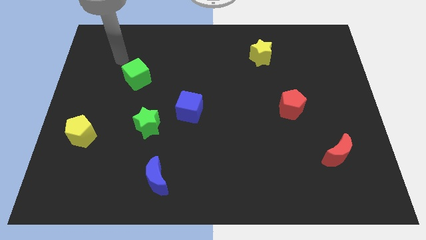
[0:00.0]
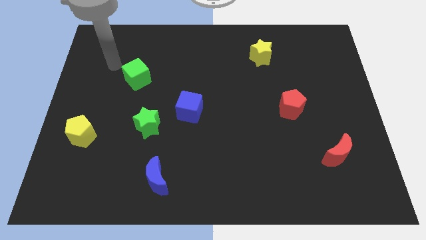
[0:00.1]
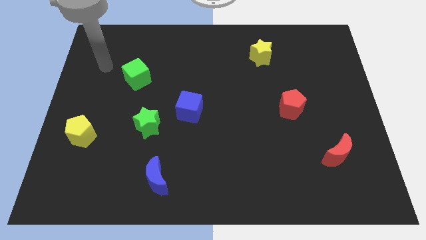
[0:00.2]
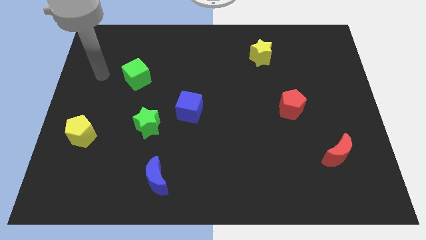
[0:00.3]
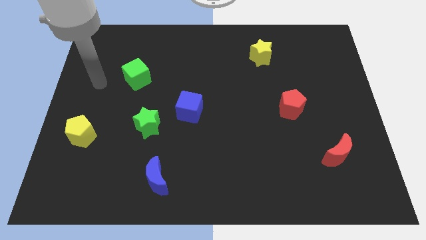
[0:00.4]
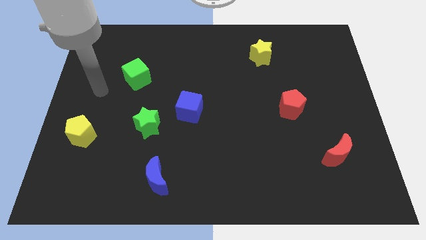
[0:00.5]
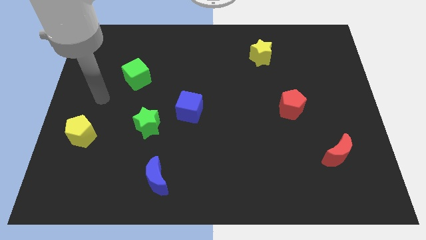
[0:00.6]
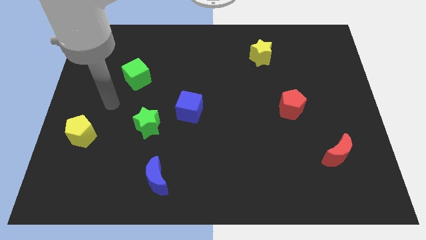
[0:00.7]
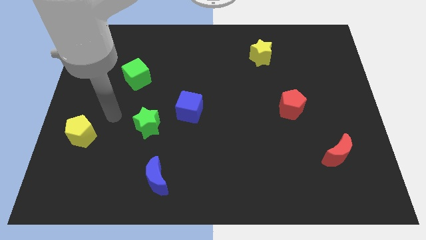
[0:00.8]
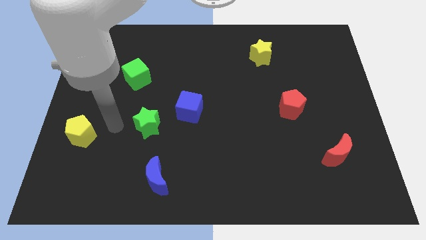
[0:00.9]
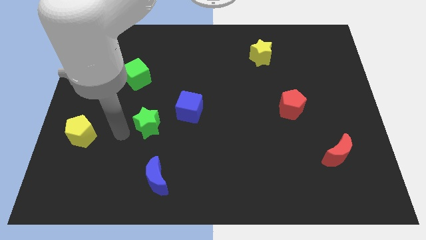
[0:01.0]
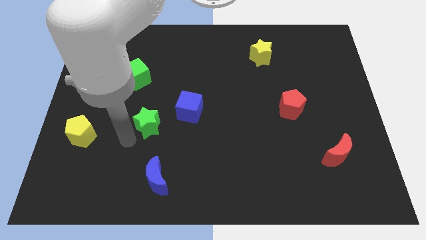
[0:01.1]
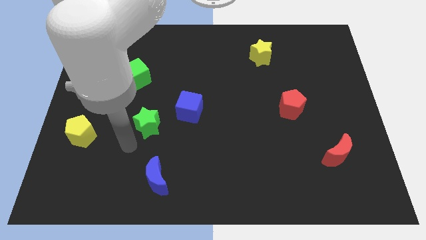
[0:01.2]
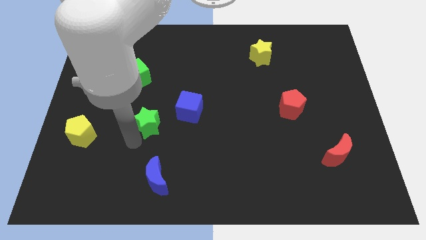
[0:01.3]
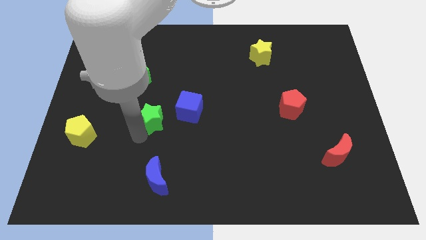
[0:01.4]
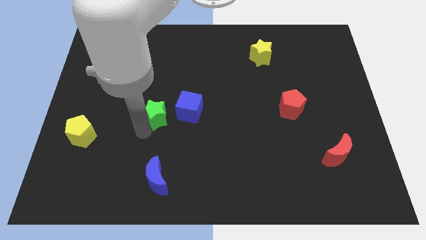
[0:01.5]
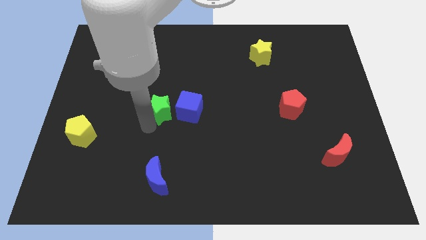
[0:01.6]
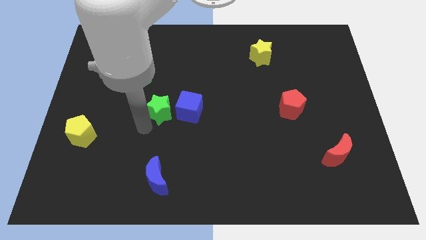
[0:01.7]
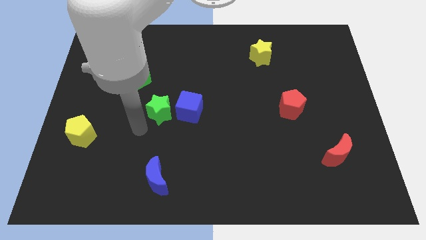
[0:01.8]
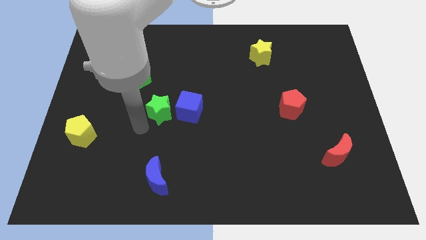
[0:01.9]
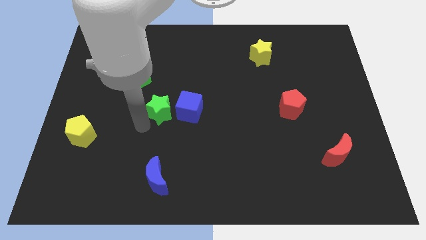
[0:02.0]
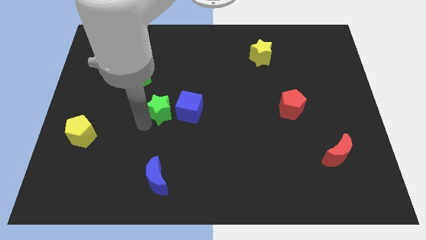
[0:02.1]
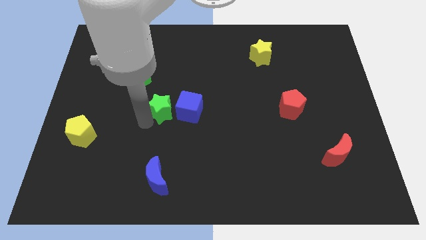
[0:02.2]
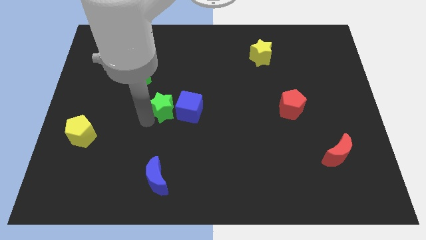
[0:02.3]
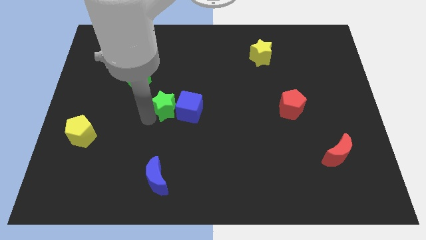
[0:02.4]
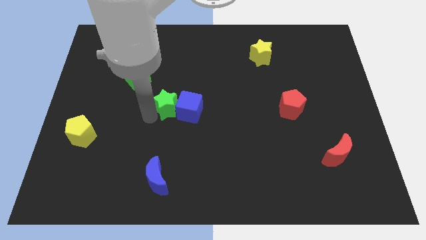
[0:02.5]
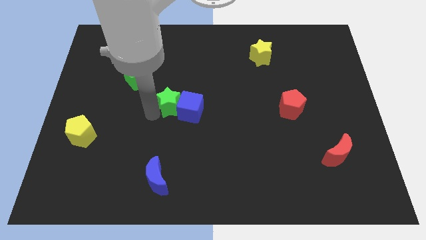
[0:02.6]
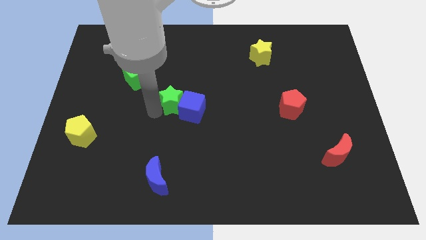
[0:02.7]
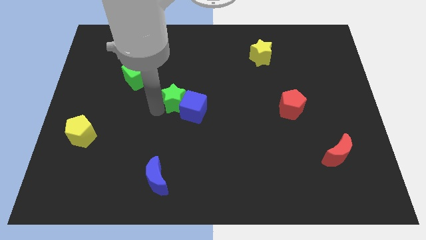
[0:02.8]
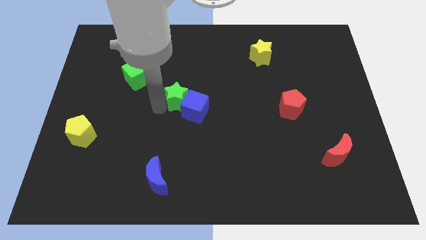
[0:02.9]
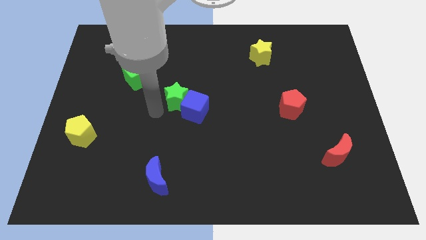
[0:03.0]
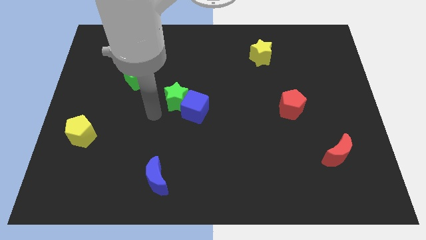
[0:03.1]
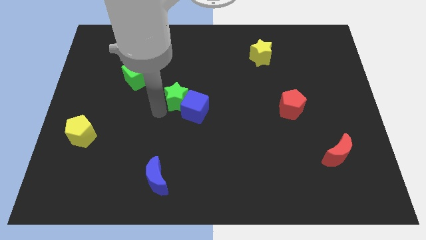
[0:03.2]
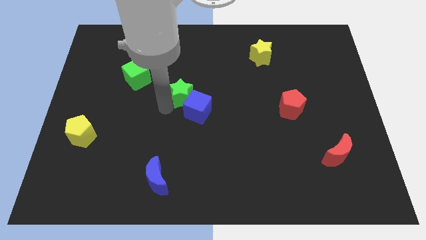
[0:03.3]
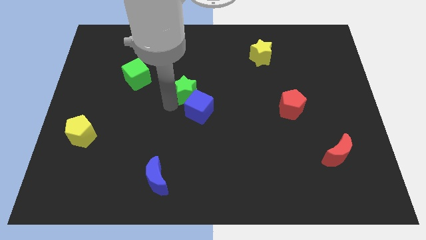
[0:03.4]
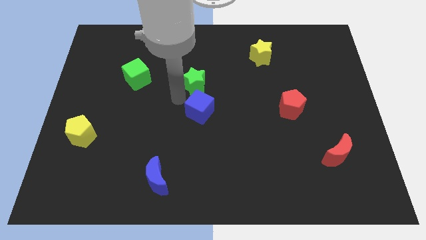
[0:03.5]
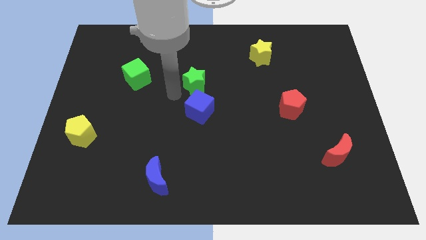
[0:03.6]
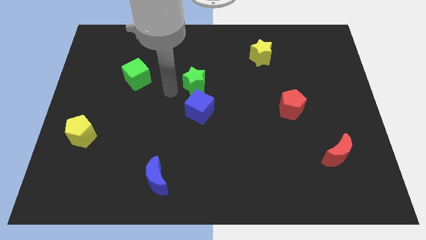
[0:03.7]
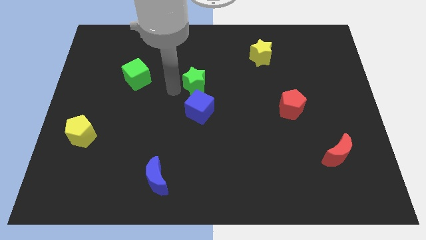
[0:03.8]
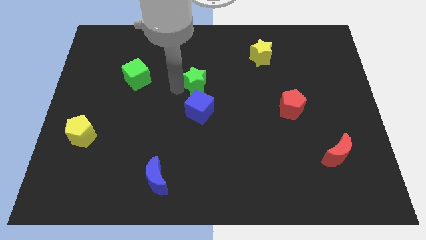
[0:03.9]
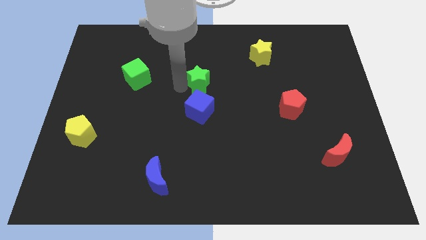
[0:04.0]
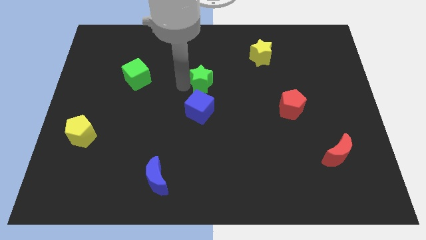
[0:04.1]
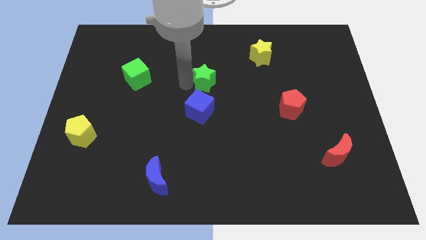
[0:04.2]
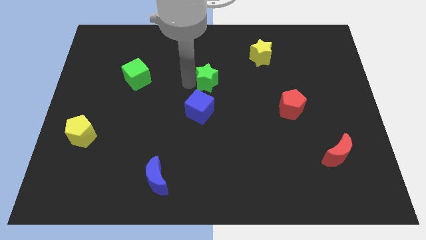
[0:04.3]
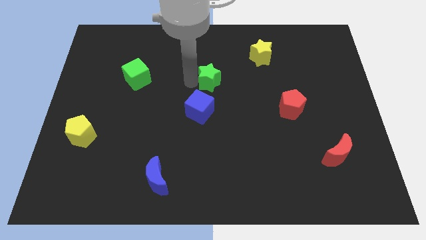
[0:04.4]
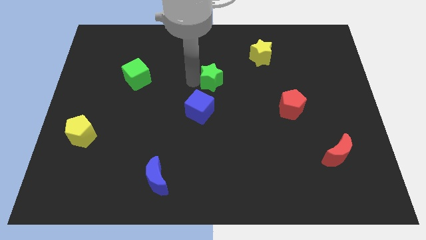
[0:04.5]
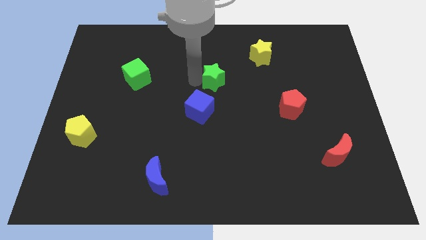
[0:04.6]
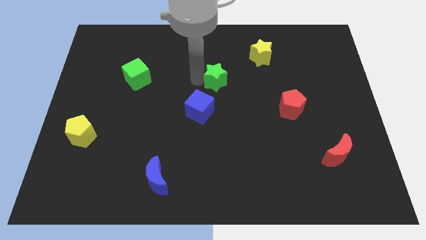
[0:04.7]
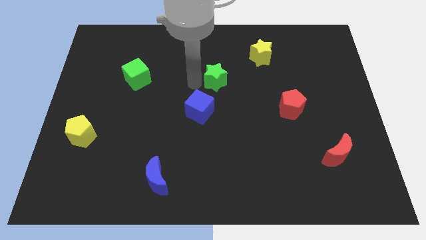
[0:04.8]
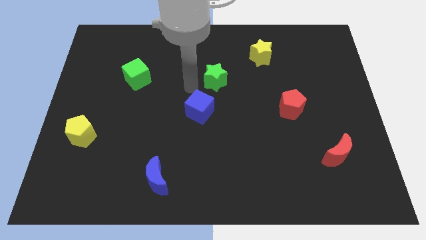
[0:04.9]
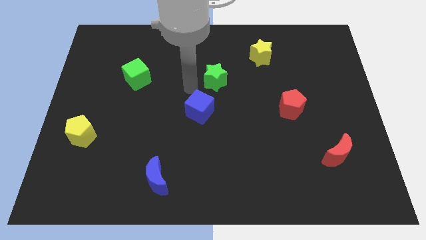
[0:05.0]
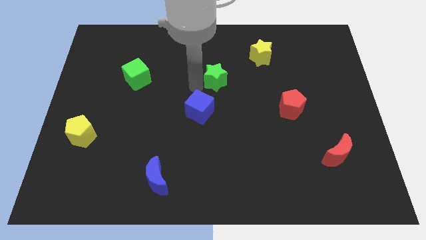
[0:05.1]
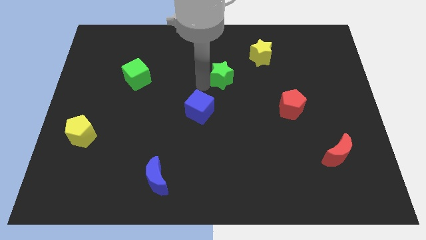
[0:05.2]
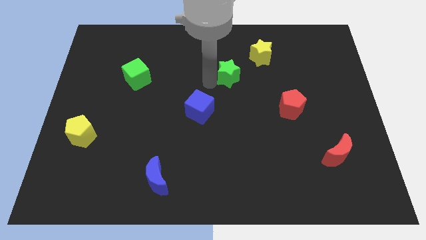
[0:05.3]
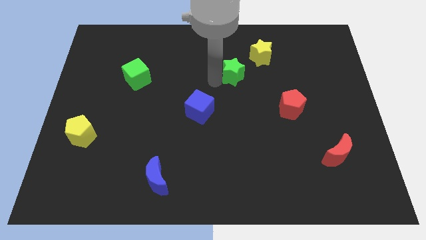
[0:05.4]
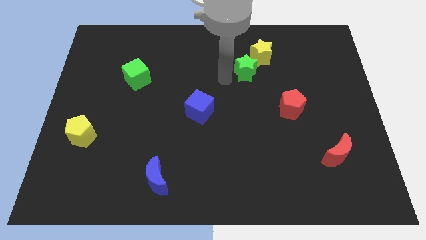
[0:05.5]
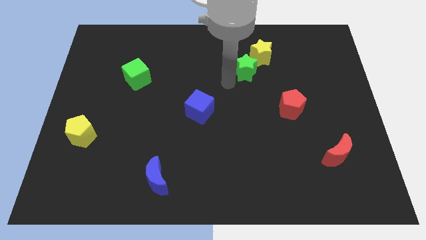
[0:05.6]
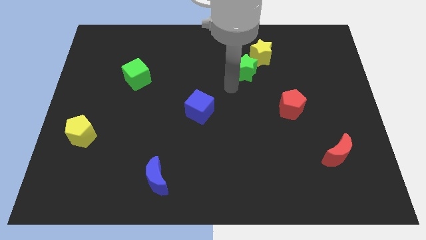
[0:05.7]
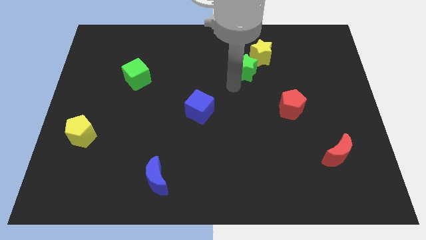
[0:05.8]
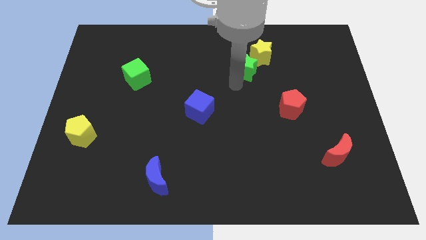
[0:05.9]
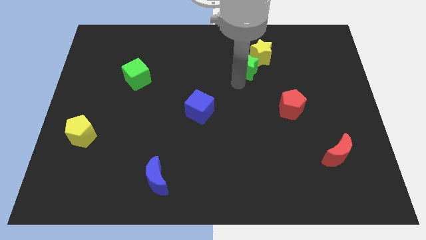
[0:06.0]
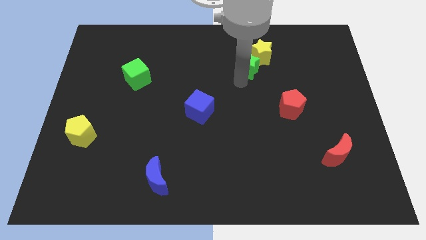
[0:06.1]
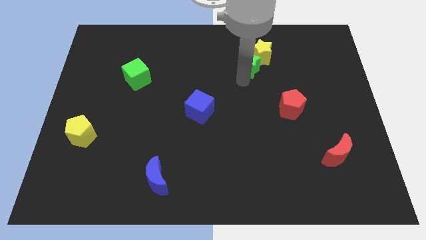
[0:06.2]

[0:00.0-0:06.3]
slide the green star next to the yellow star
